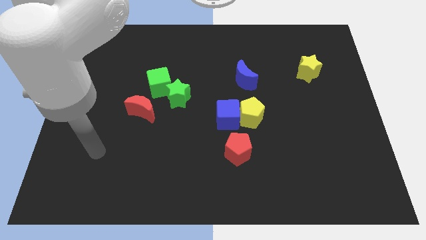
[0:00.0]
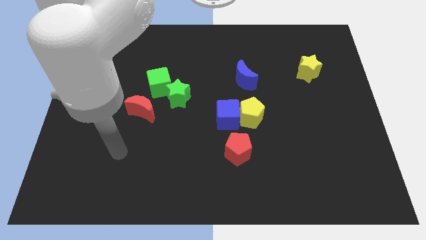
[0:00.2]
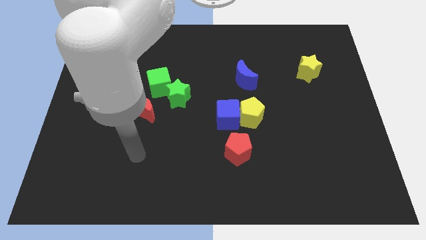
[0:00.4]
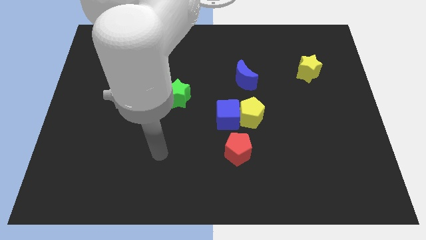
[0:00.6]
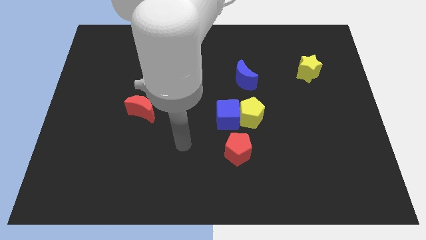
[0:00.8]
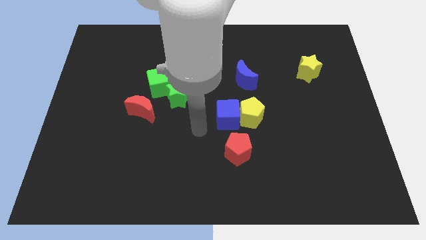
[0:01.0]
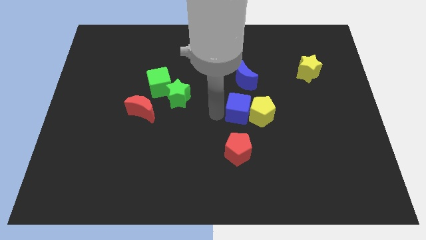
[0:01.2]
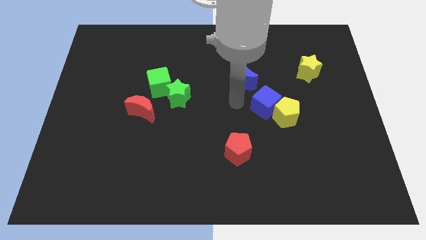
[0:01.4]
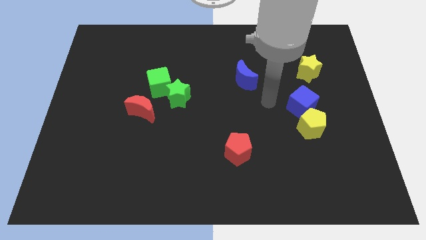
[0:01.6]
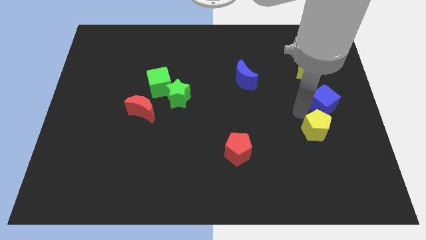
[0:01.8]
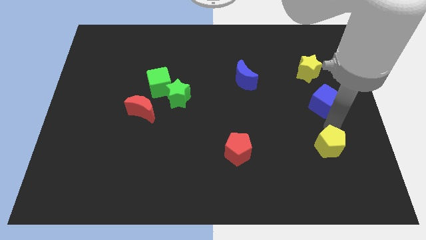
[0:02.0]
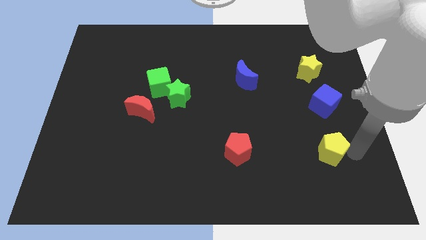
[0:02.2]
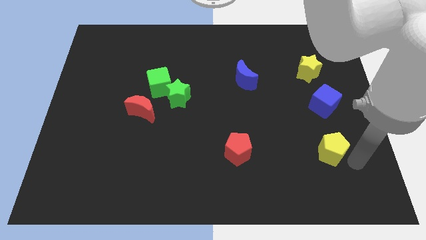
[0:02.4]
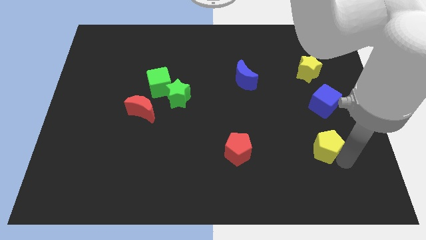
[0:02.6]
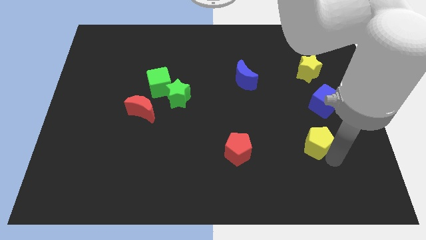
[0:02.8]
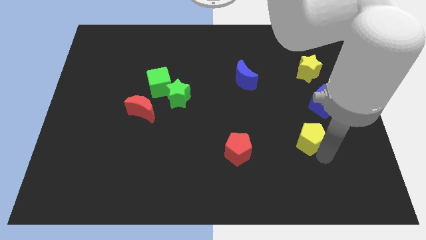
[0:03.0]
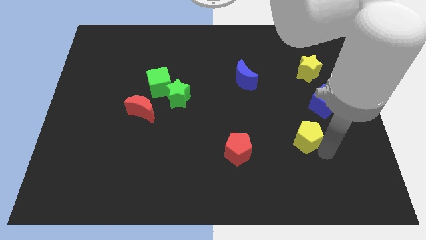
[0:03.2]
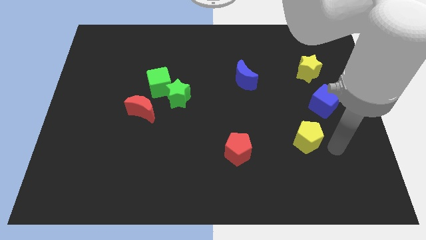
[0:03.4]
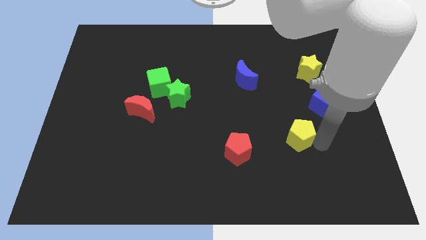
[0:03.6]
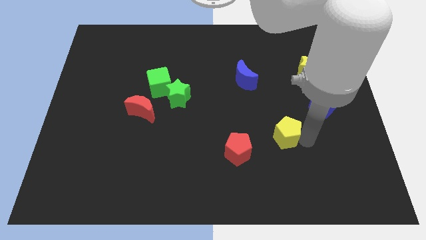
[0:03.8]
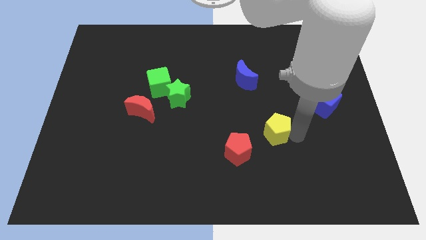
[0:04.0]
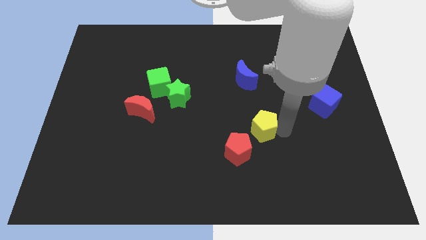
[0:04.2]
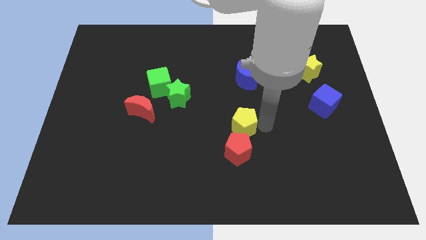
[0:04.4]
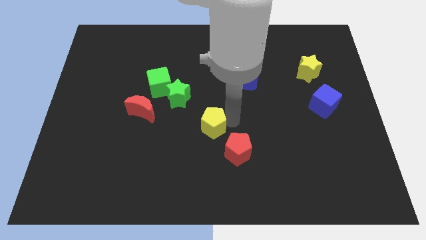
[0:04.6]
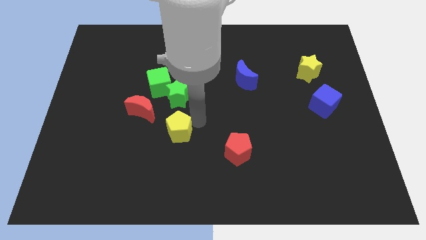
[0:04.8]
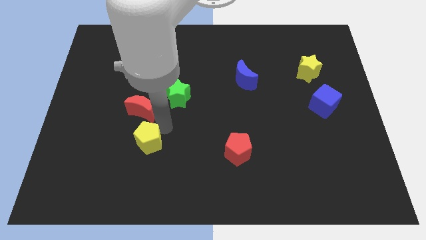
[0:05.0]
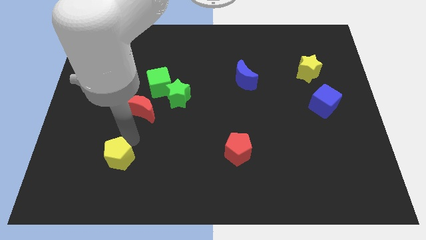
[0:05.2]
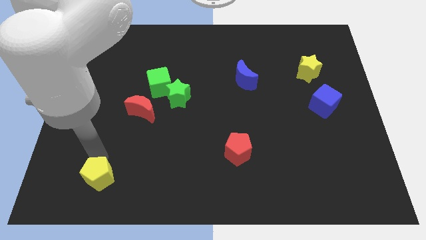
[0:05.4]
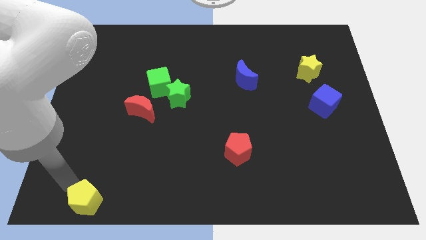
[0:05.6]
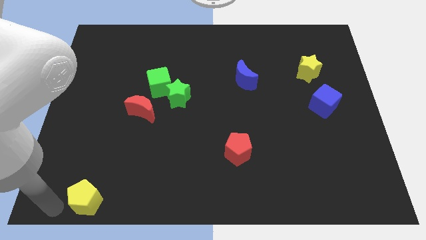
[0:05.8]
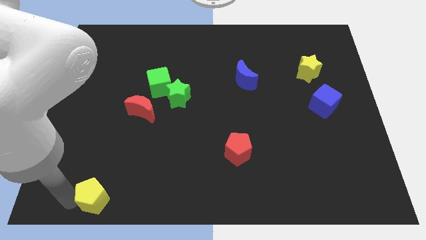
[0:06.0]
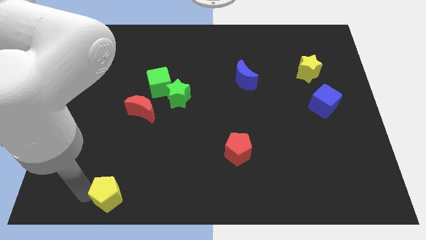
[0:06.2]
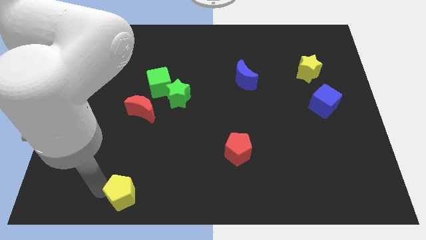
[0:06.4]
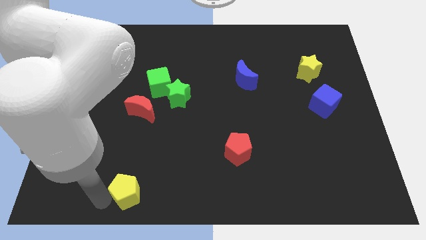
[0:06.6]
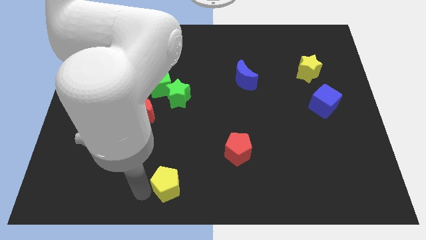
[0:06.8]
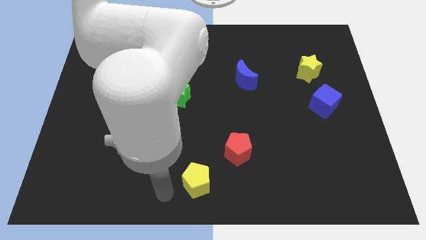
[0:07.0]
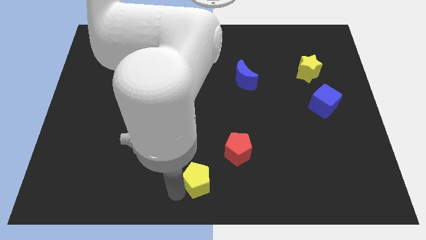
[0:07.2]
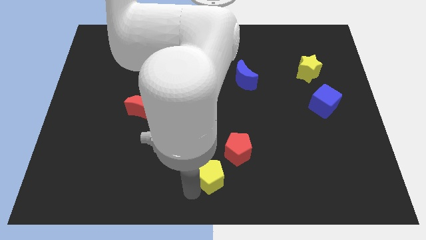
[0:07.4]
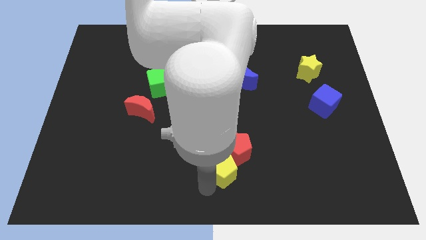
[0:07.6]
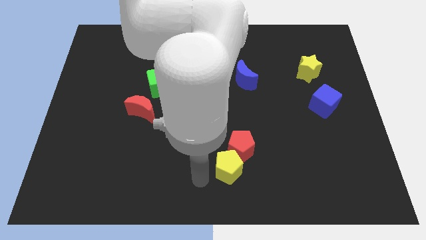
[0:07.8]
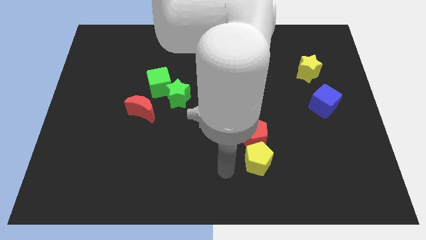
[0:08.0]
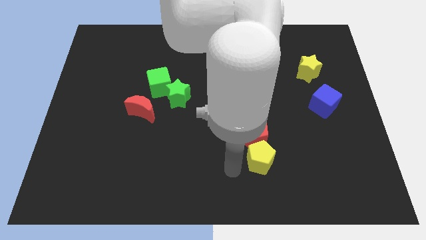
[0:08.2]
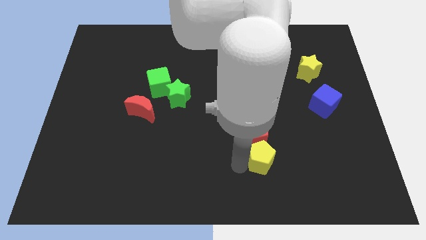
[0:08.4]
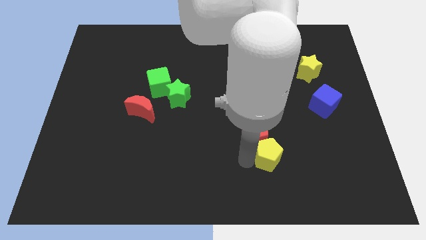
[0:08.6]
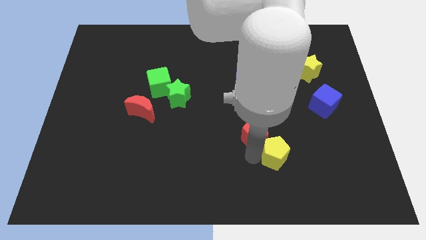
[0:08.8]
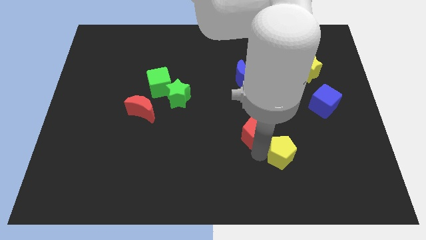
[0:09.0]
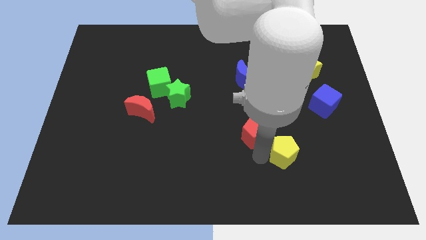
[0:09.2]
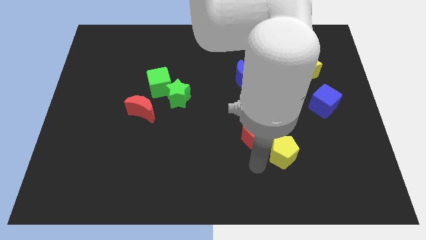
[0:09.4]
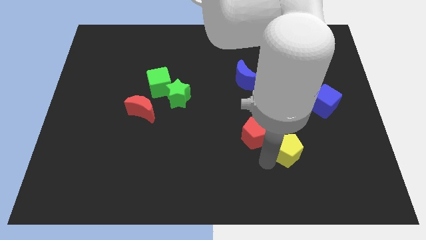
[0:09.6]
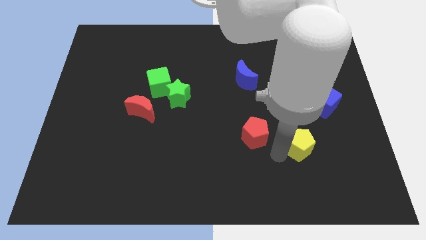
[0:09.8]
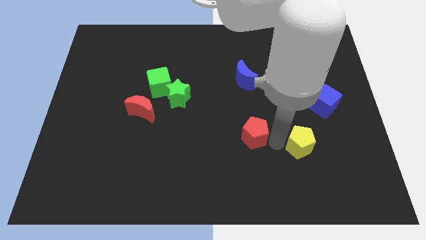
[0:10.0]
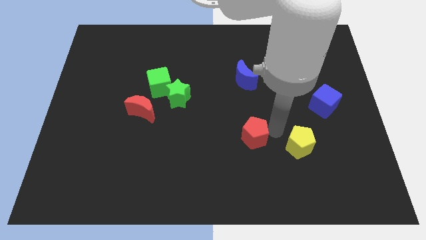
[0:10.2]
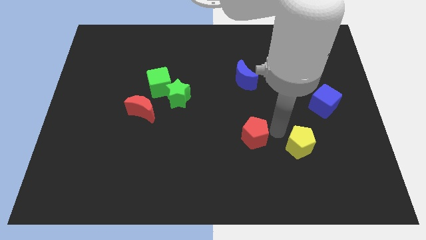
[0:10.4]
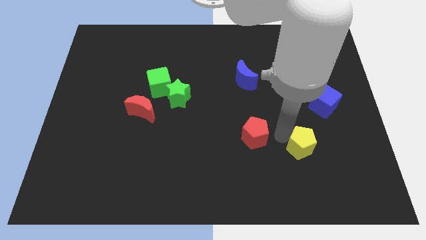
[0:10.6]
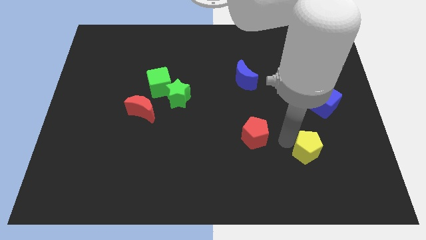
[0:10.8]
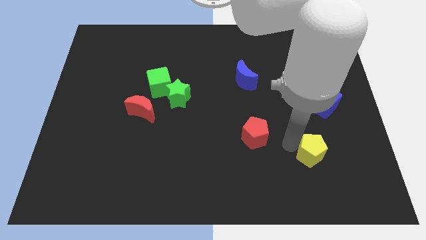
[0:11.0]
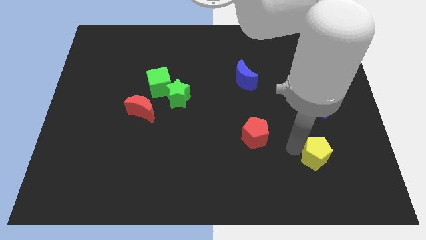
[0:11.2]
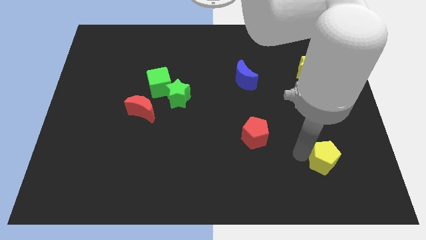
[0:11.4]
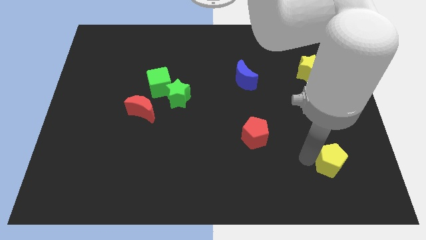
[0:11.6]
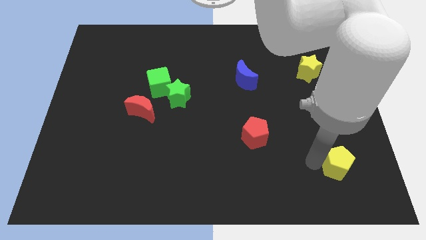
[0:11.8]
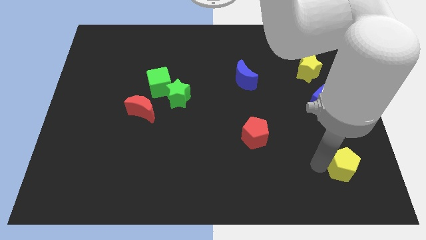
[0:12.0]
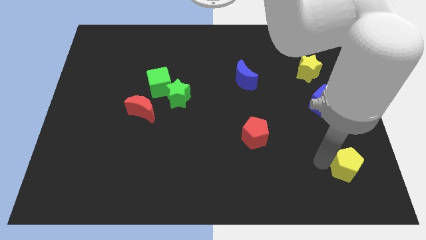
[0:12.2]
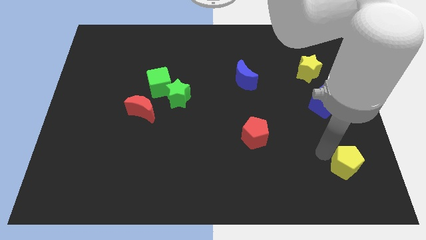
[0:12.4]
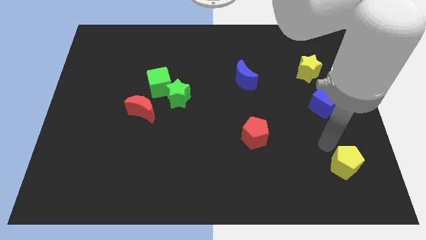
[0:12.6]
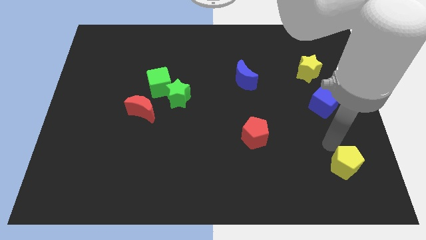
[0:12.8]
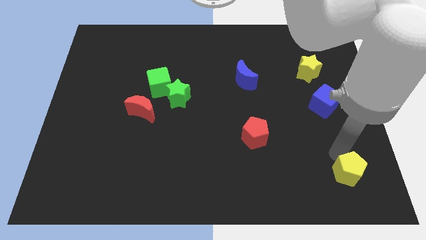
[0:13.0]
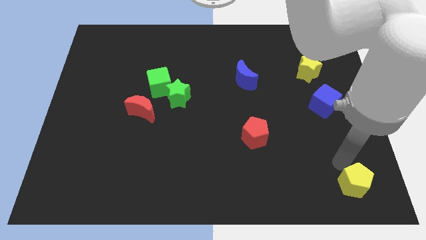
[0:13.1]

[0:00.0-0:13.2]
slide the yellow pentagon to the bottom right corner

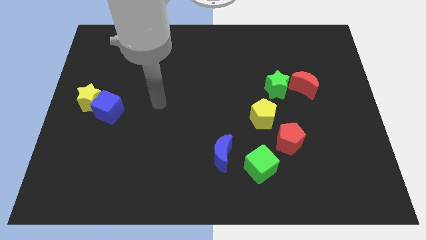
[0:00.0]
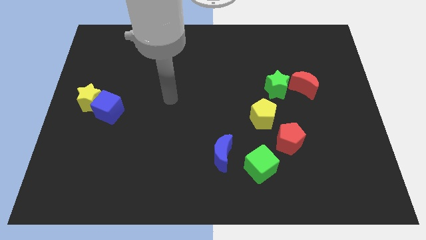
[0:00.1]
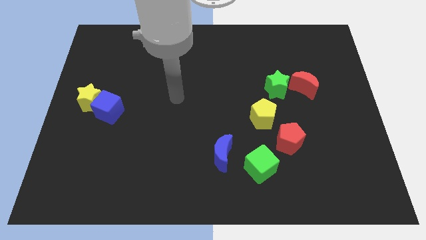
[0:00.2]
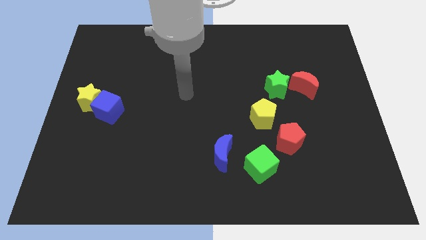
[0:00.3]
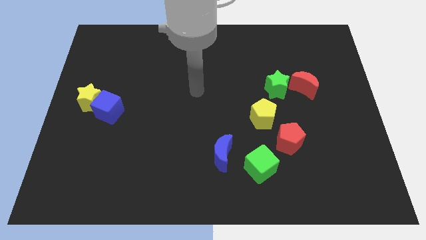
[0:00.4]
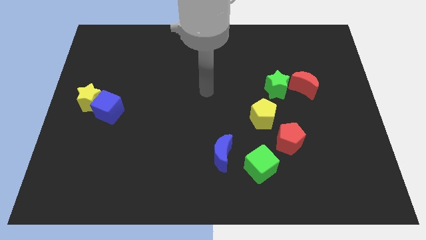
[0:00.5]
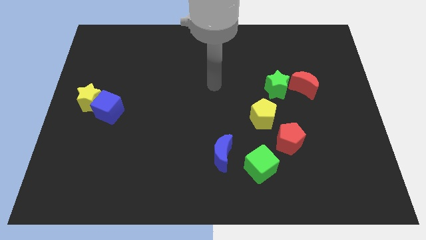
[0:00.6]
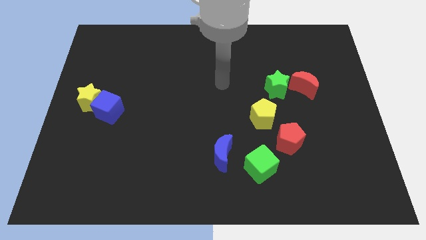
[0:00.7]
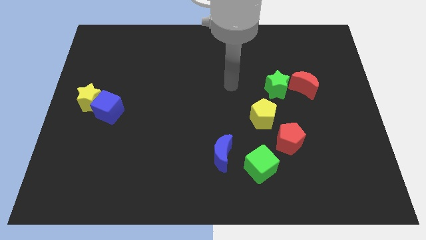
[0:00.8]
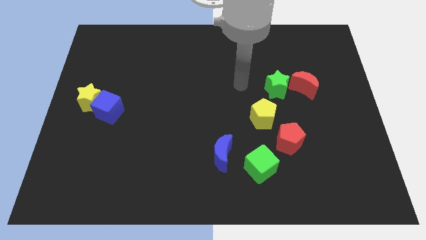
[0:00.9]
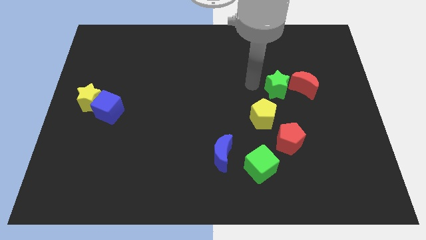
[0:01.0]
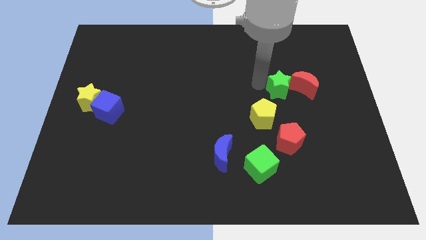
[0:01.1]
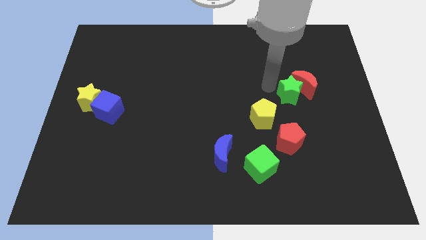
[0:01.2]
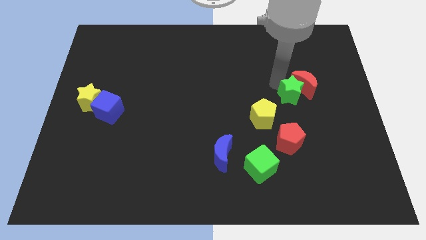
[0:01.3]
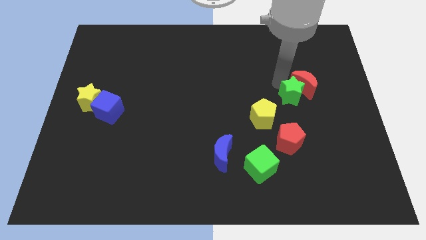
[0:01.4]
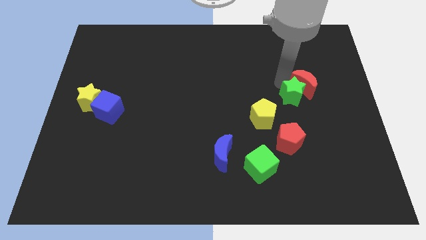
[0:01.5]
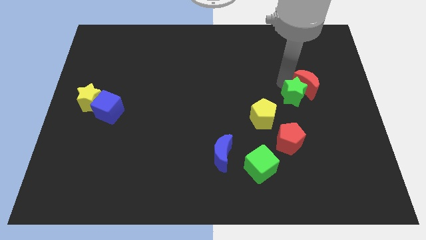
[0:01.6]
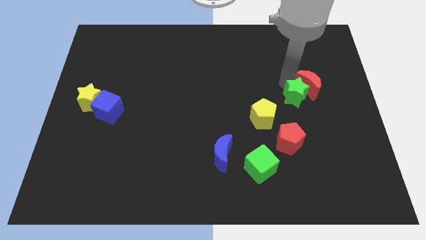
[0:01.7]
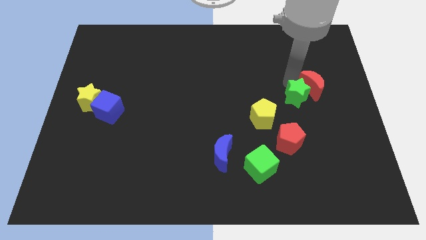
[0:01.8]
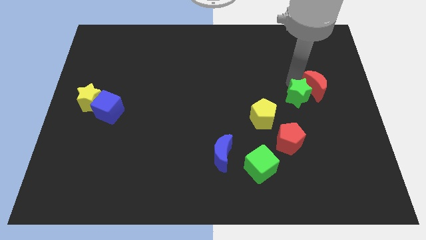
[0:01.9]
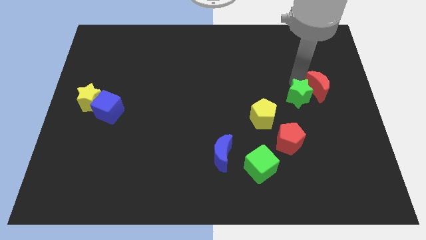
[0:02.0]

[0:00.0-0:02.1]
push the red moon to the right side
